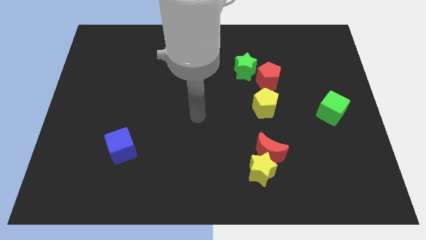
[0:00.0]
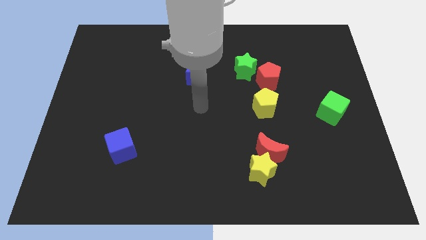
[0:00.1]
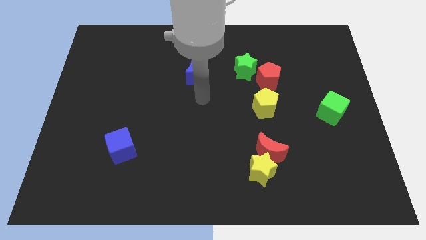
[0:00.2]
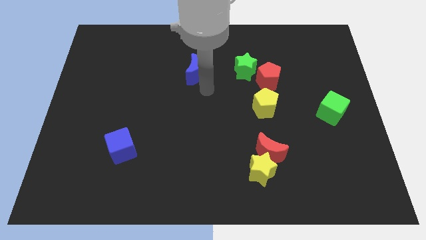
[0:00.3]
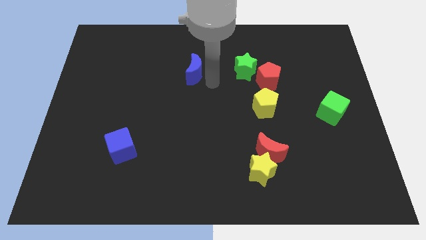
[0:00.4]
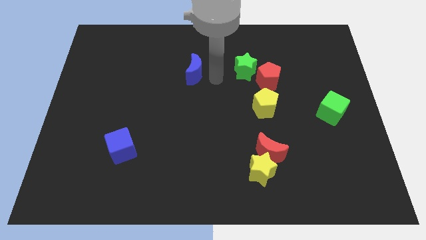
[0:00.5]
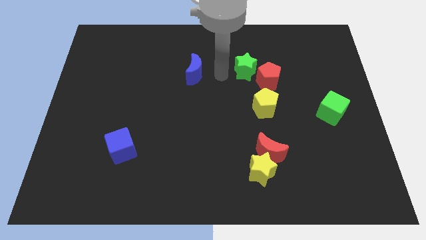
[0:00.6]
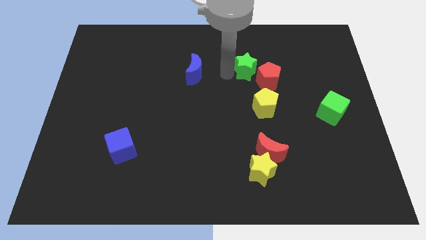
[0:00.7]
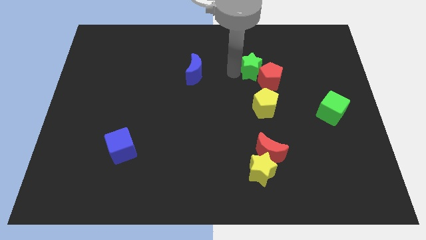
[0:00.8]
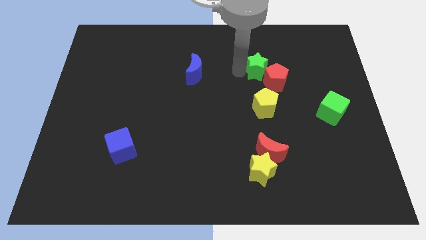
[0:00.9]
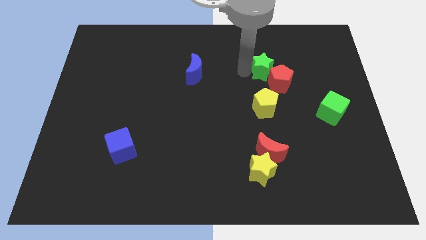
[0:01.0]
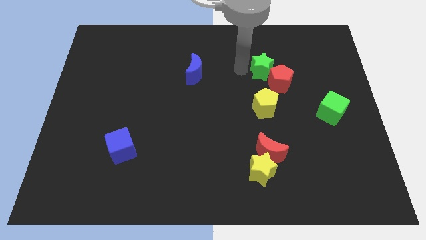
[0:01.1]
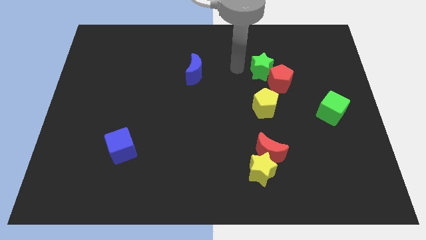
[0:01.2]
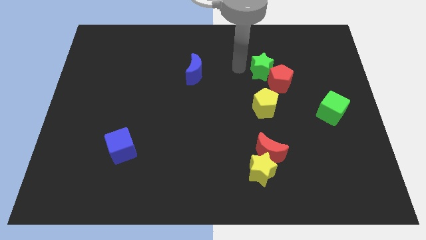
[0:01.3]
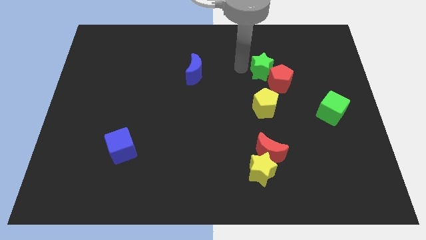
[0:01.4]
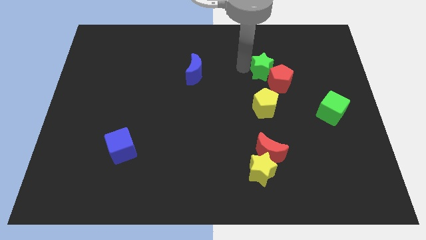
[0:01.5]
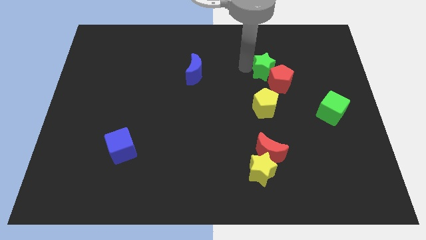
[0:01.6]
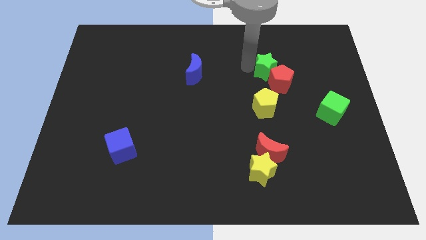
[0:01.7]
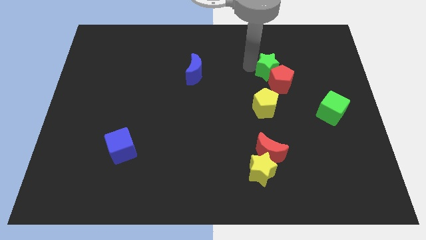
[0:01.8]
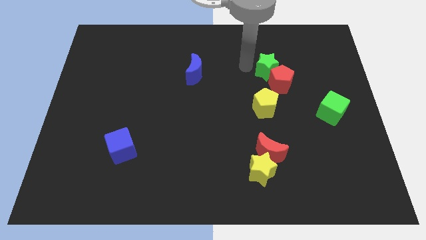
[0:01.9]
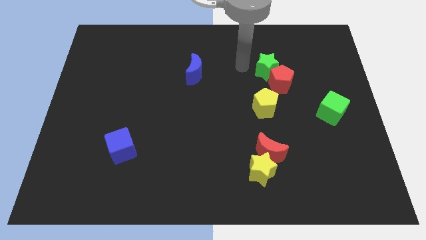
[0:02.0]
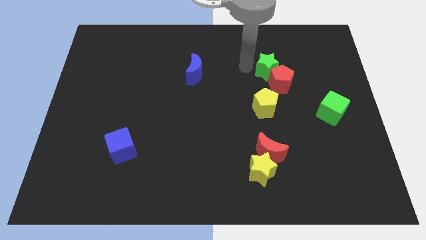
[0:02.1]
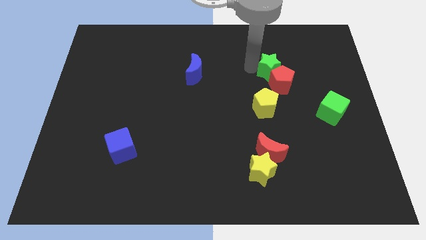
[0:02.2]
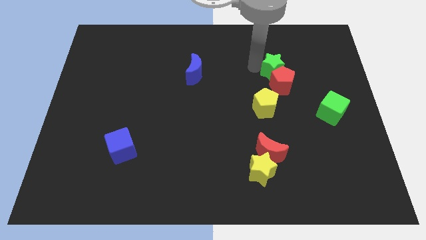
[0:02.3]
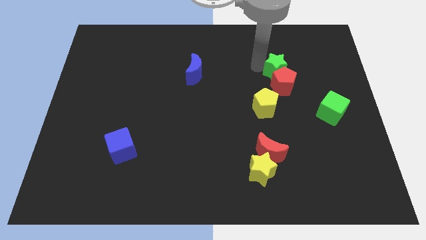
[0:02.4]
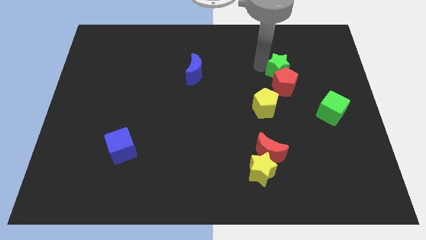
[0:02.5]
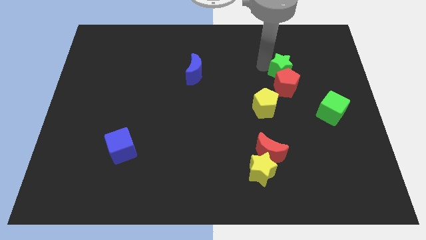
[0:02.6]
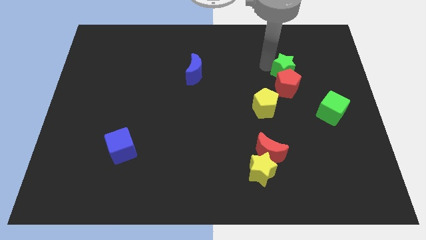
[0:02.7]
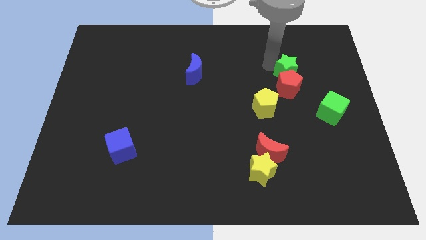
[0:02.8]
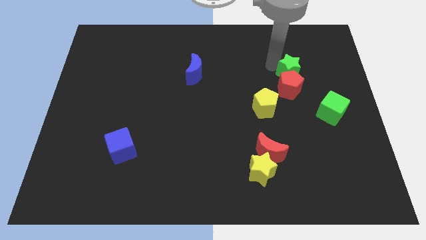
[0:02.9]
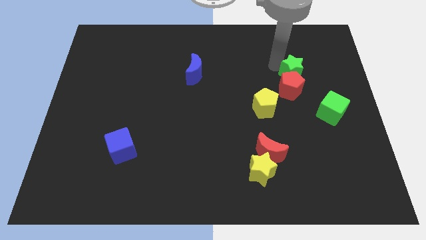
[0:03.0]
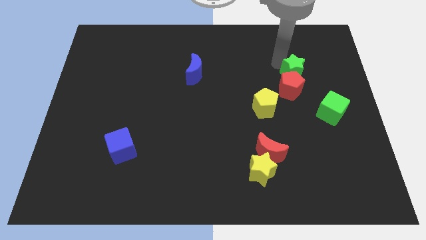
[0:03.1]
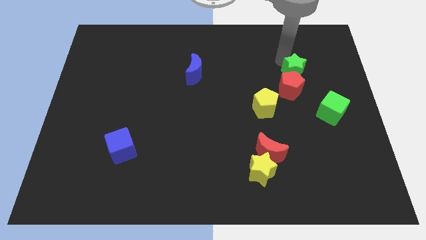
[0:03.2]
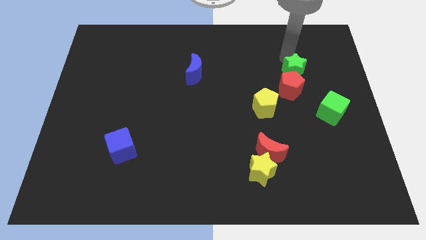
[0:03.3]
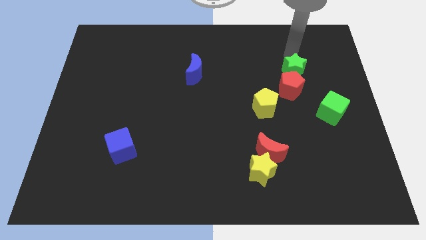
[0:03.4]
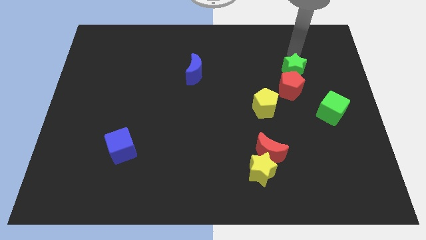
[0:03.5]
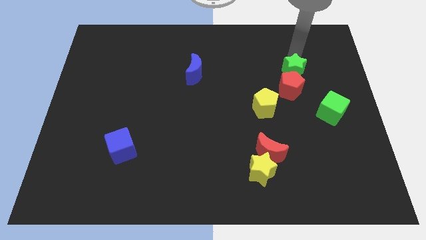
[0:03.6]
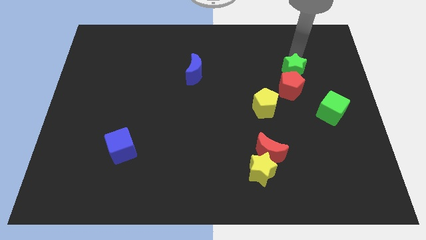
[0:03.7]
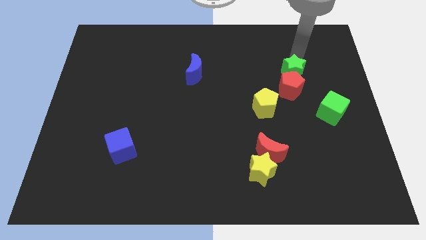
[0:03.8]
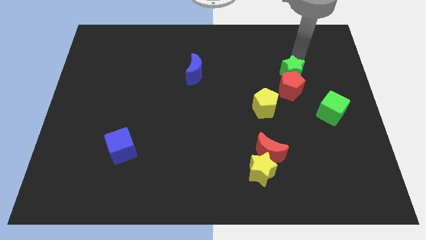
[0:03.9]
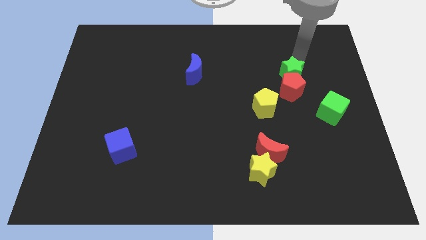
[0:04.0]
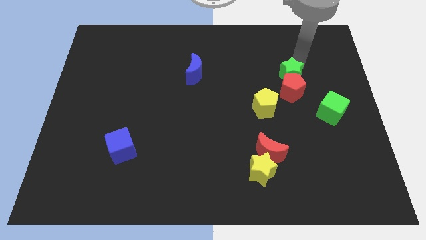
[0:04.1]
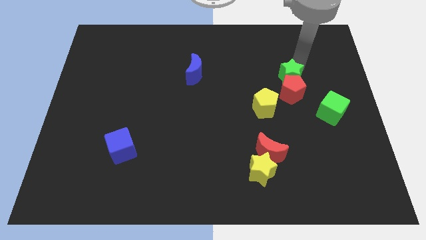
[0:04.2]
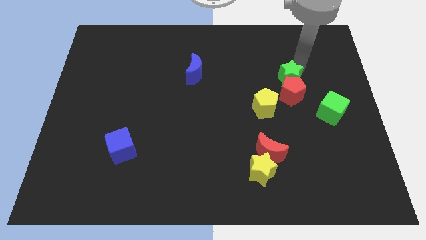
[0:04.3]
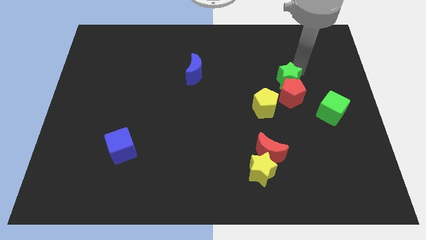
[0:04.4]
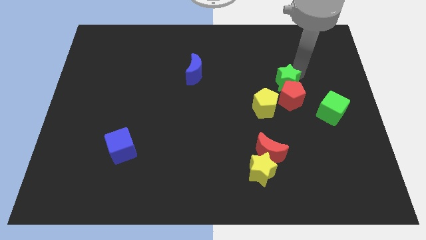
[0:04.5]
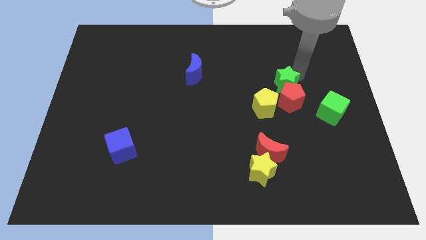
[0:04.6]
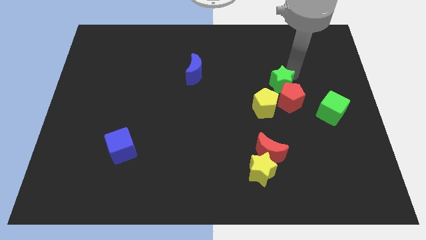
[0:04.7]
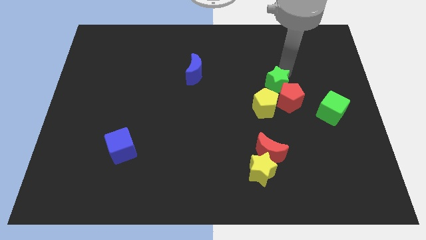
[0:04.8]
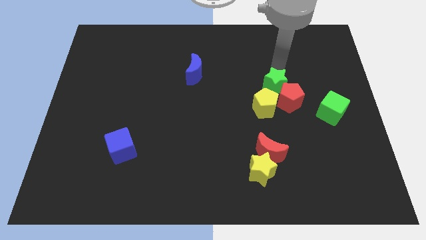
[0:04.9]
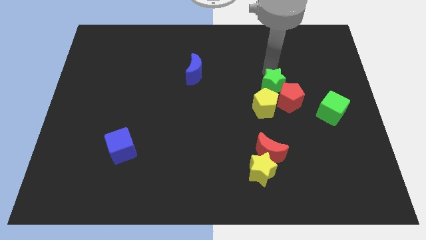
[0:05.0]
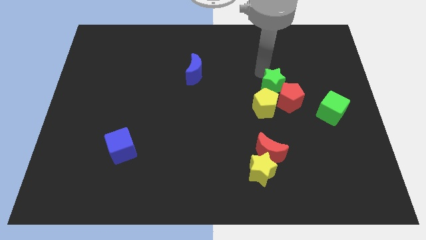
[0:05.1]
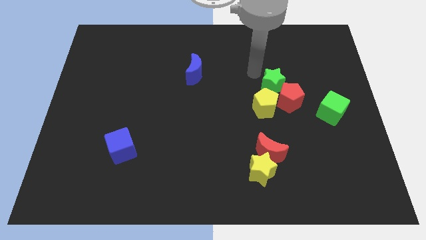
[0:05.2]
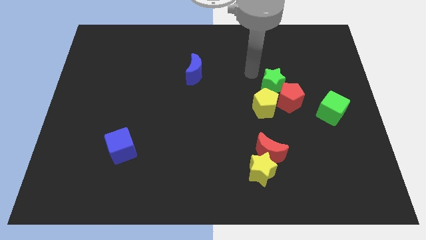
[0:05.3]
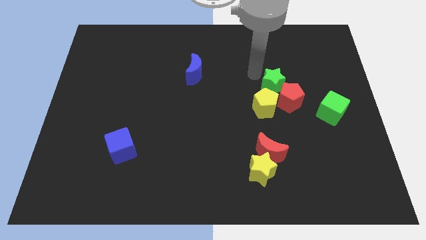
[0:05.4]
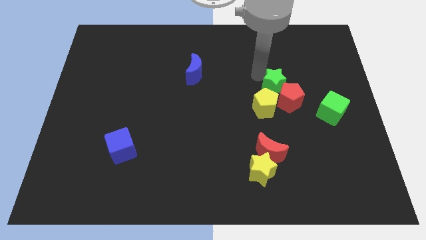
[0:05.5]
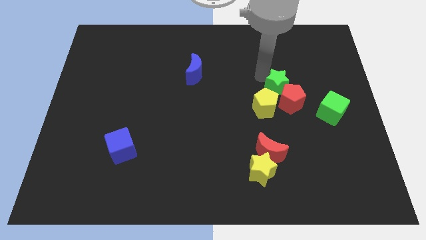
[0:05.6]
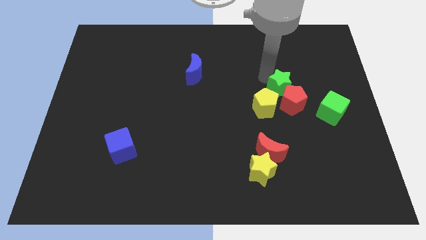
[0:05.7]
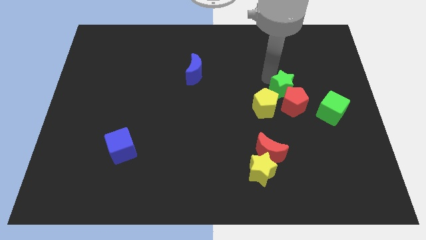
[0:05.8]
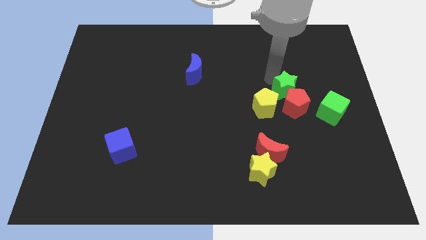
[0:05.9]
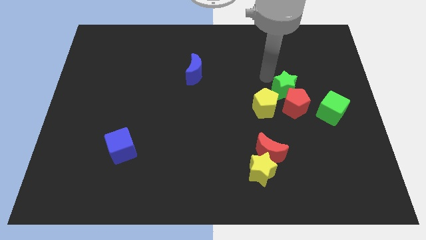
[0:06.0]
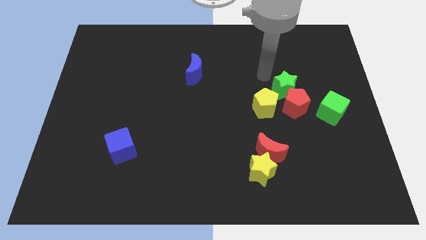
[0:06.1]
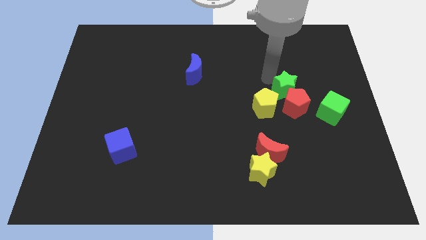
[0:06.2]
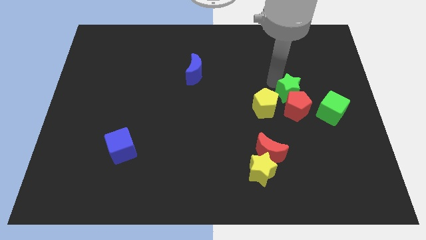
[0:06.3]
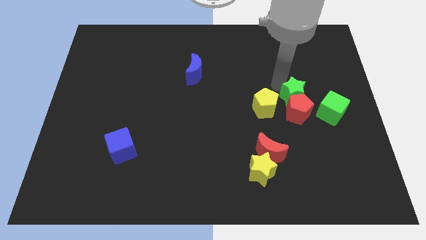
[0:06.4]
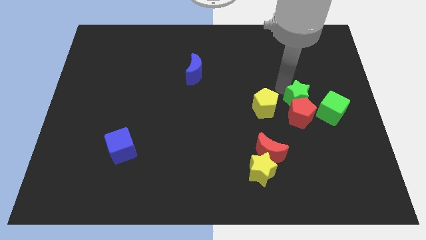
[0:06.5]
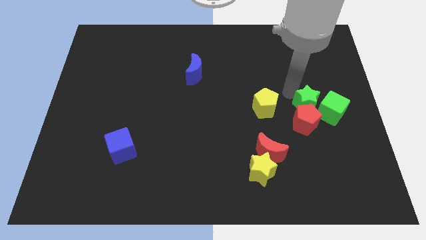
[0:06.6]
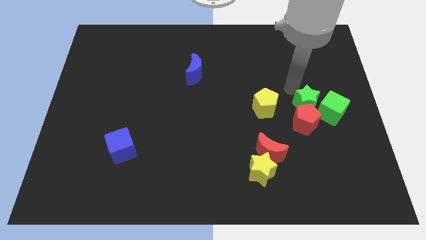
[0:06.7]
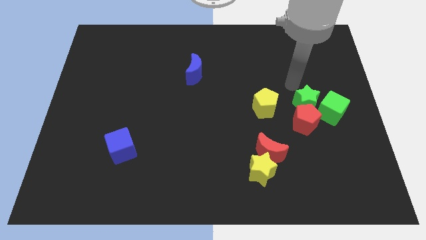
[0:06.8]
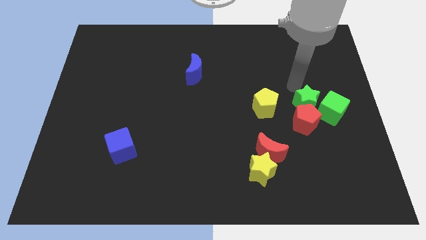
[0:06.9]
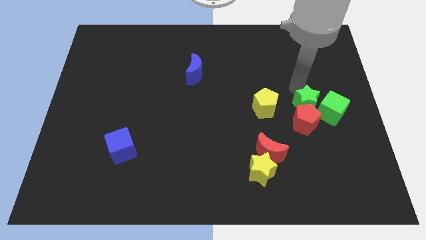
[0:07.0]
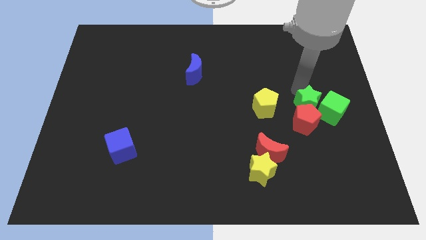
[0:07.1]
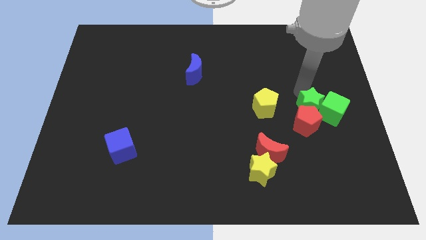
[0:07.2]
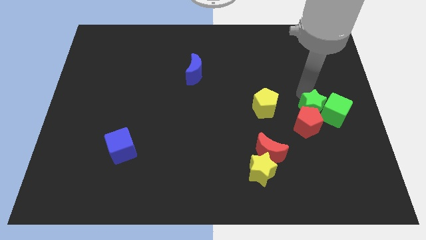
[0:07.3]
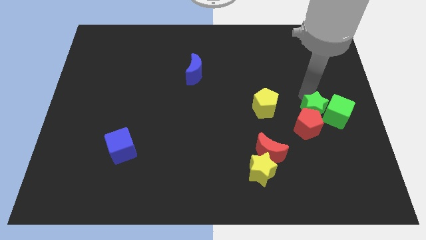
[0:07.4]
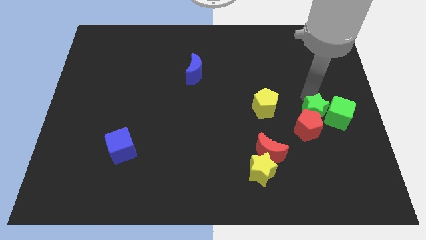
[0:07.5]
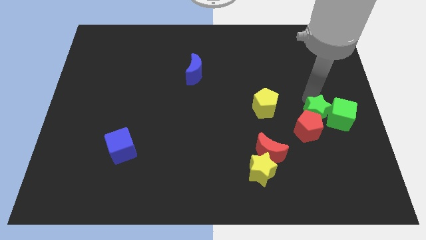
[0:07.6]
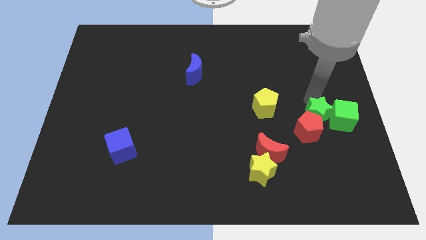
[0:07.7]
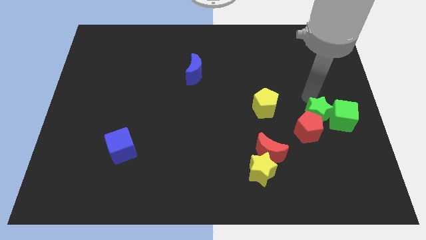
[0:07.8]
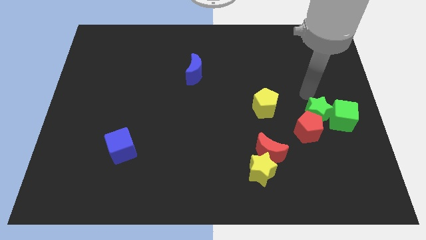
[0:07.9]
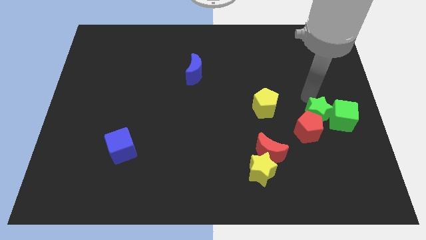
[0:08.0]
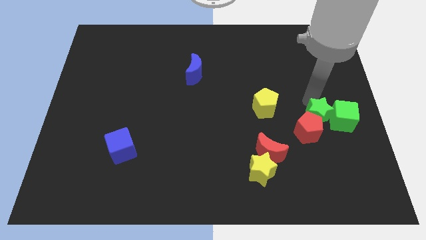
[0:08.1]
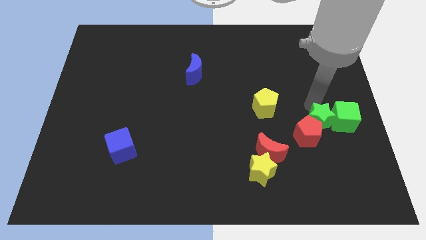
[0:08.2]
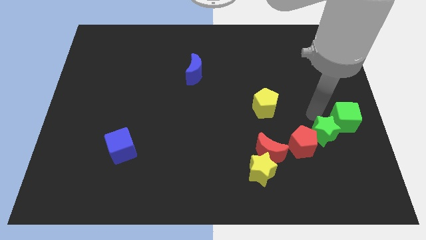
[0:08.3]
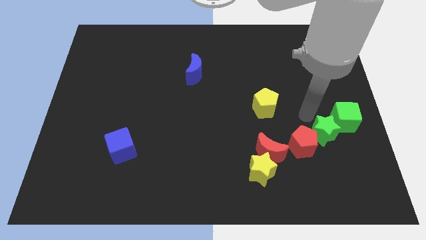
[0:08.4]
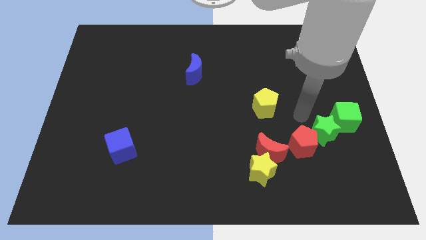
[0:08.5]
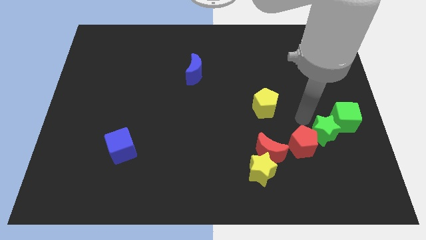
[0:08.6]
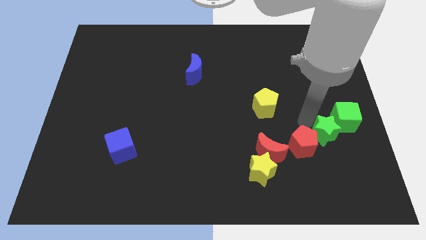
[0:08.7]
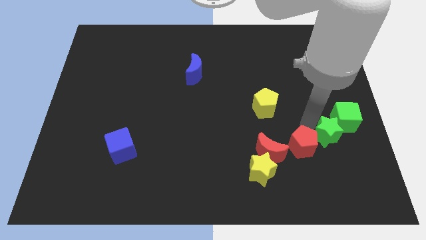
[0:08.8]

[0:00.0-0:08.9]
push the green star to the bottom side of the green cube
